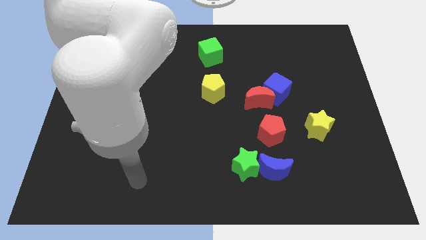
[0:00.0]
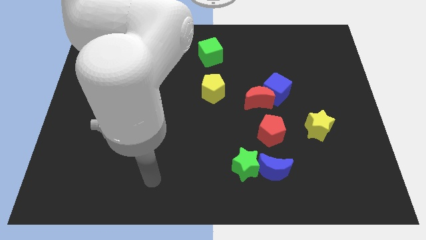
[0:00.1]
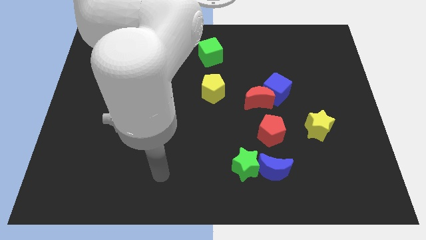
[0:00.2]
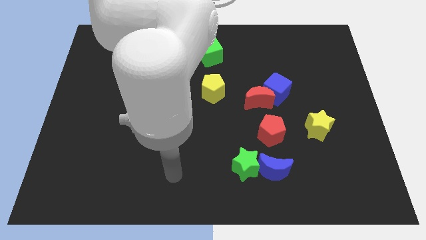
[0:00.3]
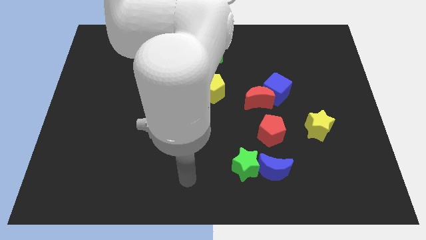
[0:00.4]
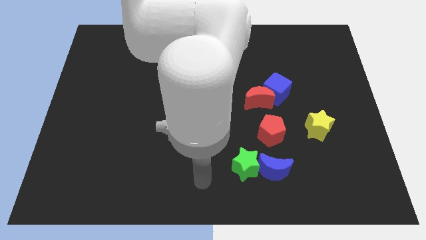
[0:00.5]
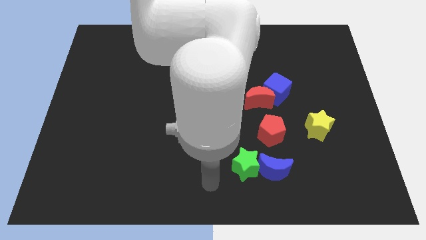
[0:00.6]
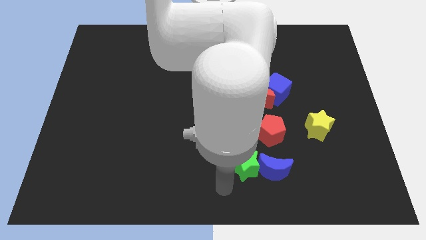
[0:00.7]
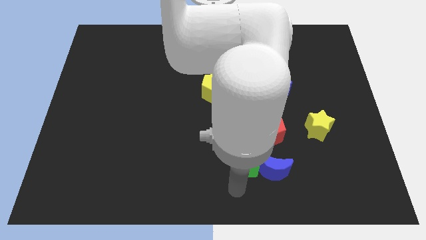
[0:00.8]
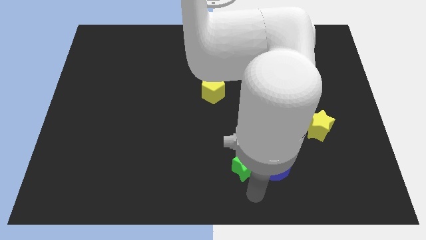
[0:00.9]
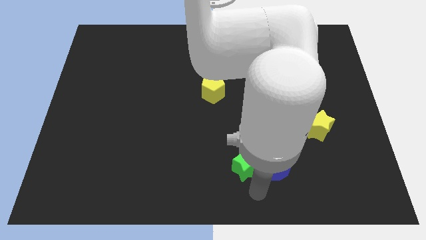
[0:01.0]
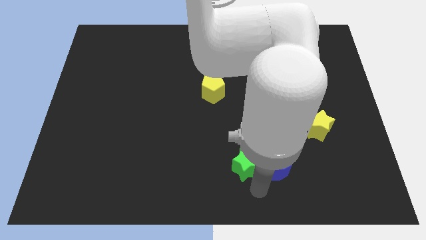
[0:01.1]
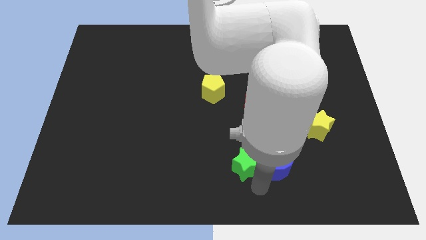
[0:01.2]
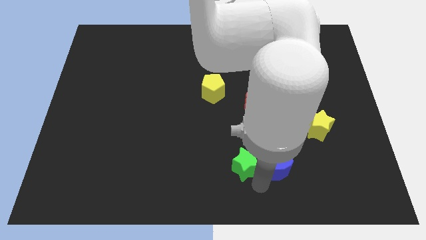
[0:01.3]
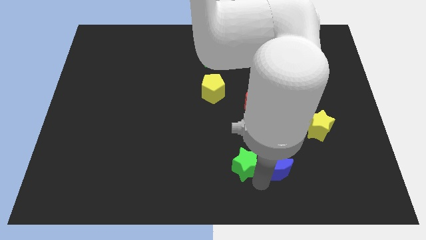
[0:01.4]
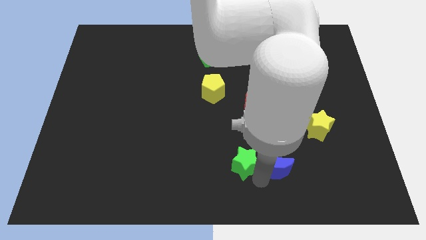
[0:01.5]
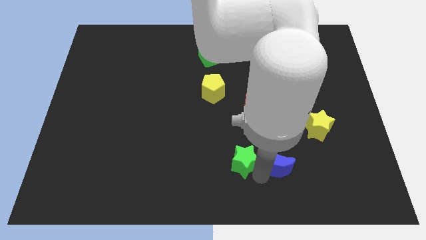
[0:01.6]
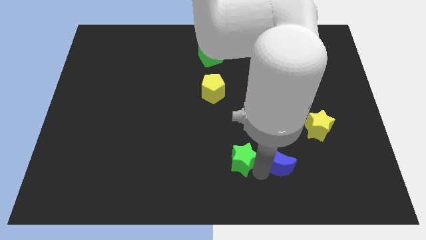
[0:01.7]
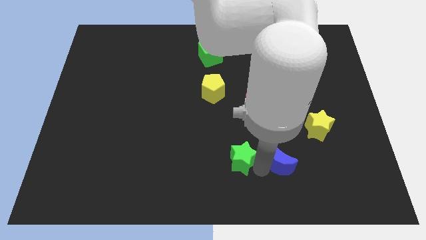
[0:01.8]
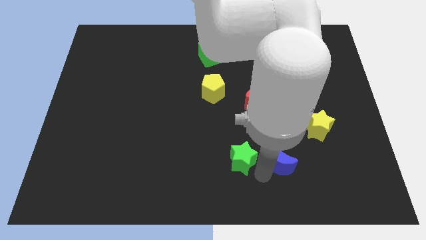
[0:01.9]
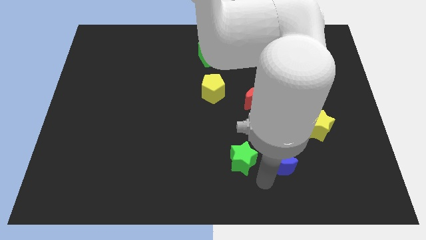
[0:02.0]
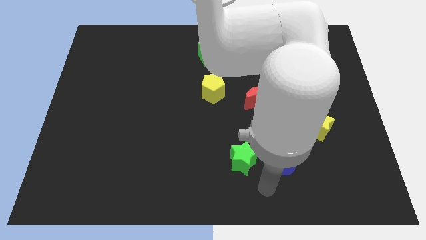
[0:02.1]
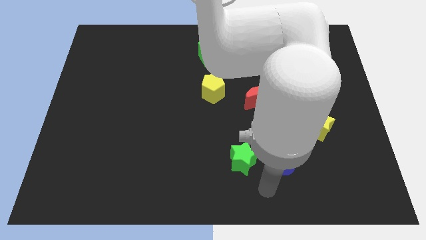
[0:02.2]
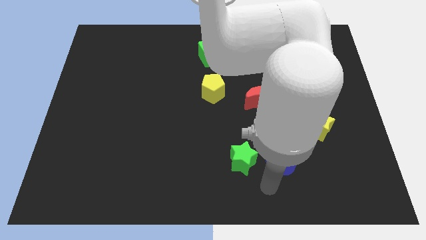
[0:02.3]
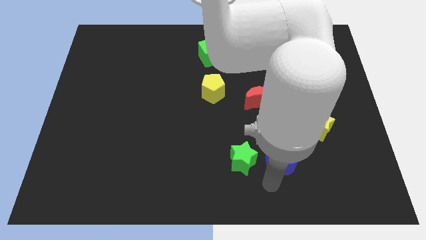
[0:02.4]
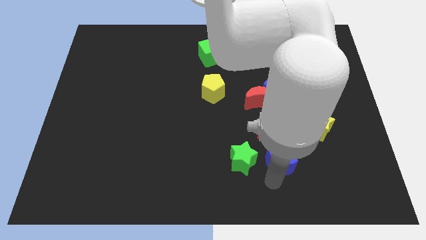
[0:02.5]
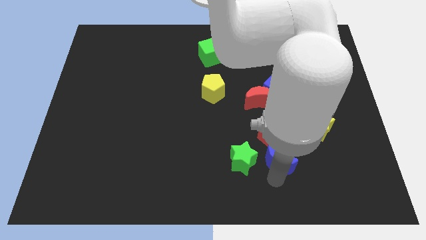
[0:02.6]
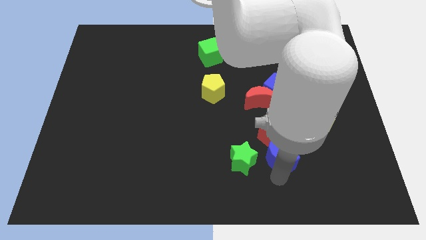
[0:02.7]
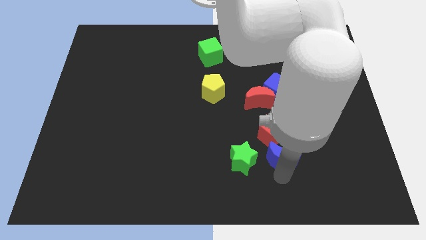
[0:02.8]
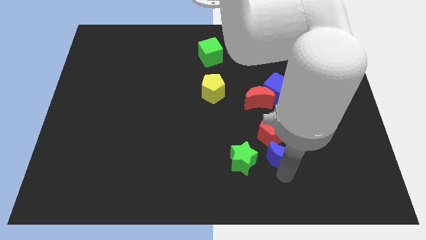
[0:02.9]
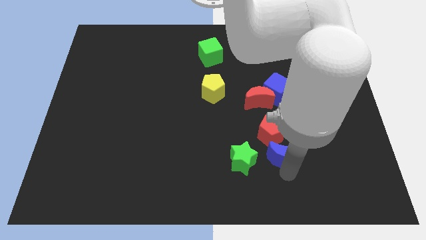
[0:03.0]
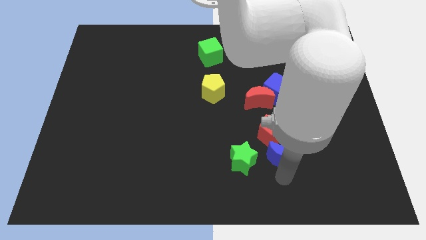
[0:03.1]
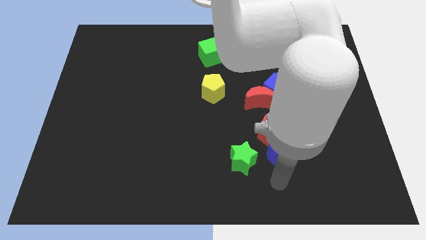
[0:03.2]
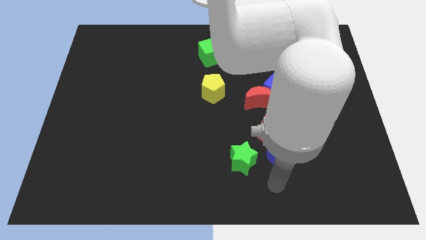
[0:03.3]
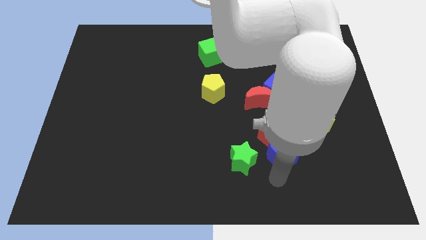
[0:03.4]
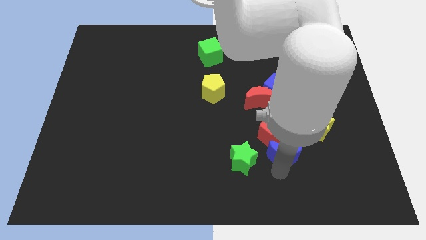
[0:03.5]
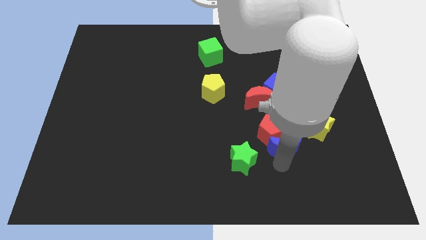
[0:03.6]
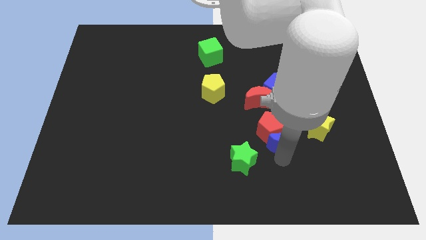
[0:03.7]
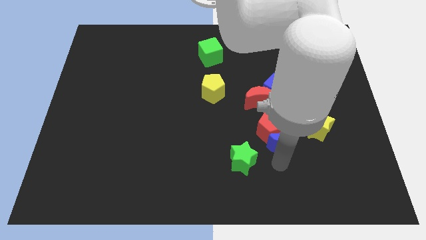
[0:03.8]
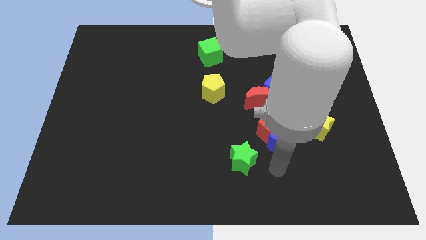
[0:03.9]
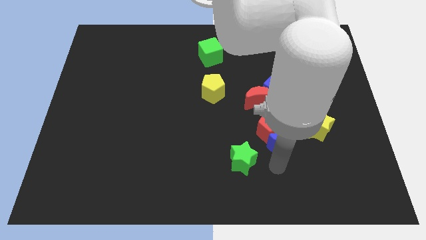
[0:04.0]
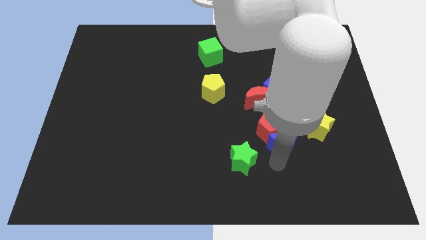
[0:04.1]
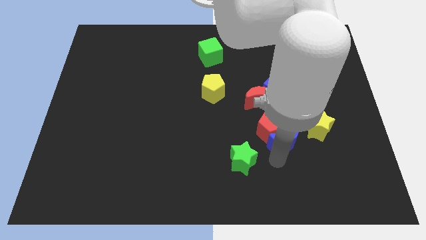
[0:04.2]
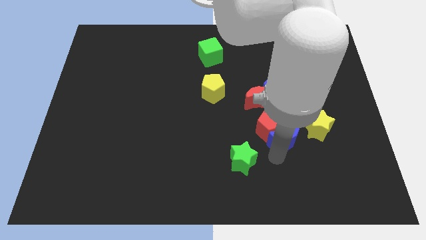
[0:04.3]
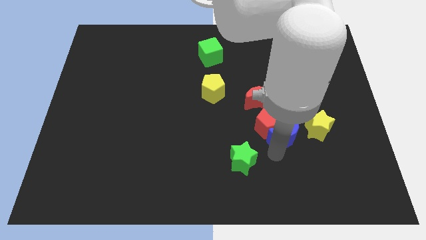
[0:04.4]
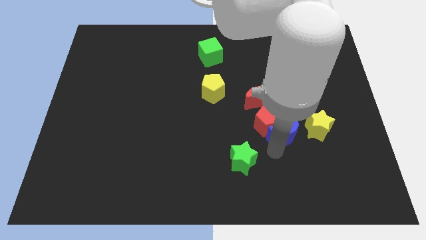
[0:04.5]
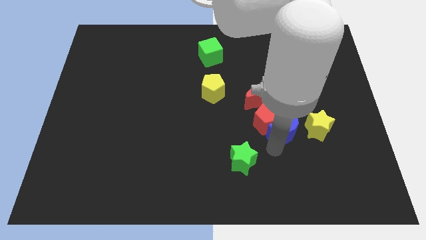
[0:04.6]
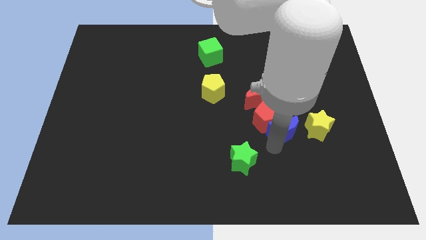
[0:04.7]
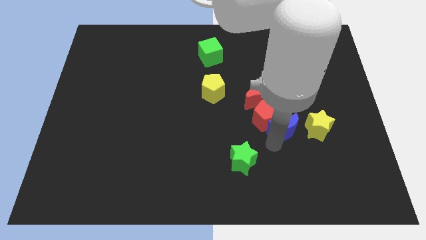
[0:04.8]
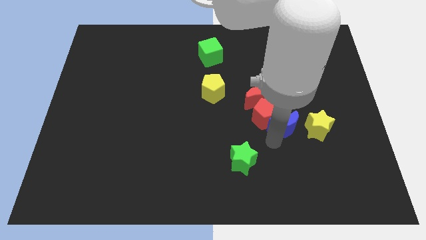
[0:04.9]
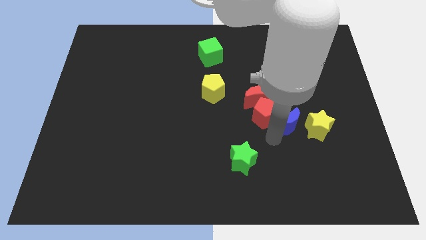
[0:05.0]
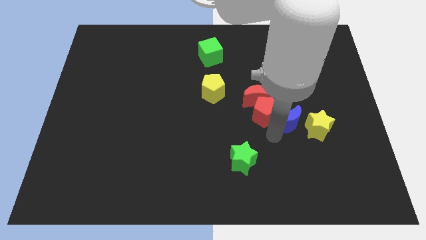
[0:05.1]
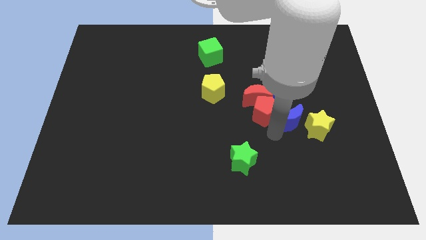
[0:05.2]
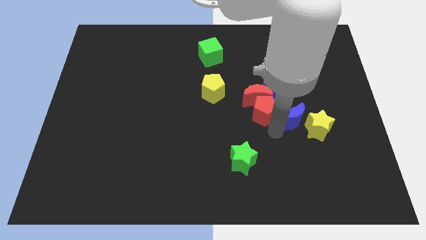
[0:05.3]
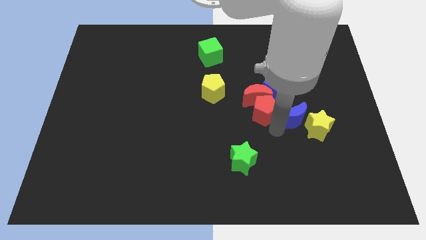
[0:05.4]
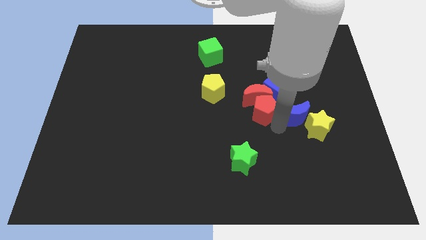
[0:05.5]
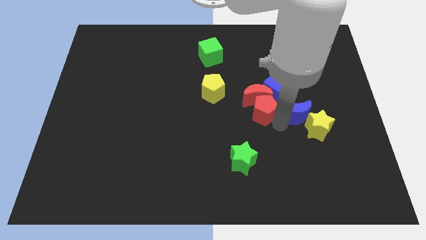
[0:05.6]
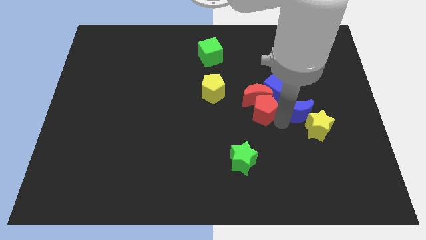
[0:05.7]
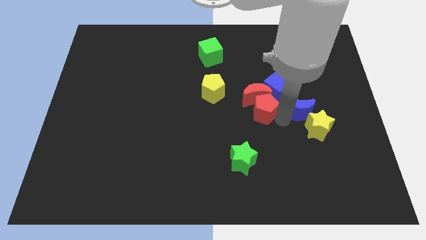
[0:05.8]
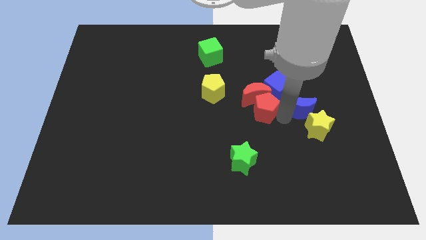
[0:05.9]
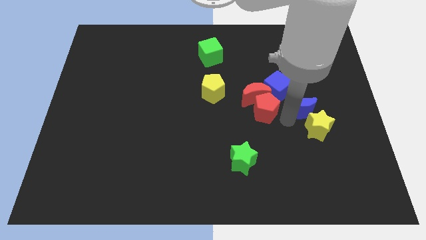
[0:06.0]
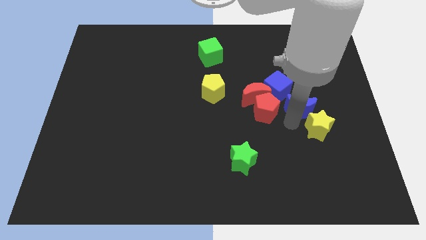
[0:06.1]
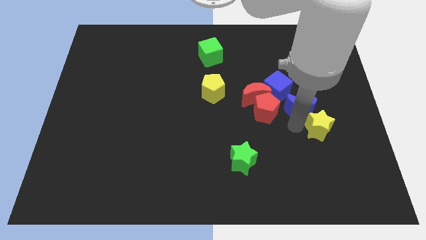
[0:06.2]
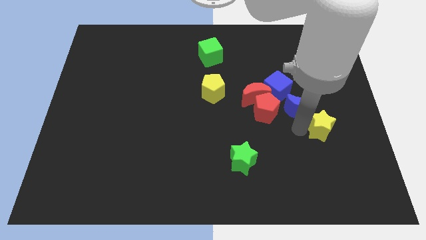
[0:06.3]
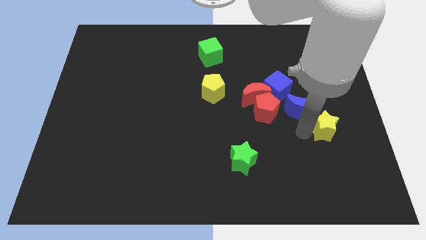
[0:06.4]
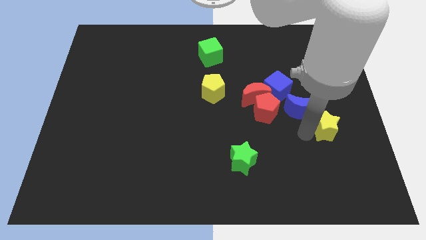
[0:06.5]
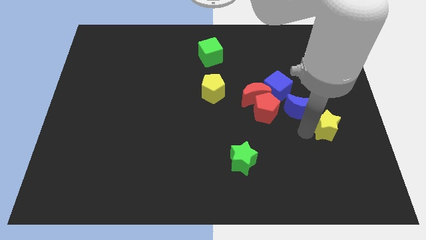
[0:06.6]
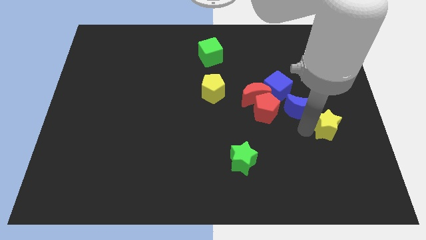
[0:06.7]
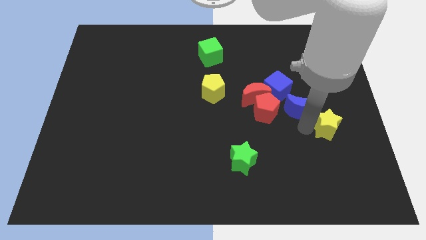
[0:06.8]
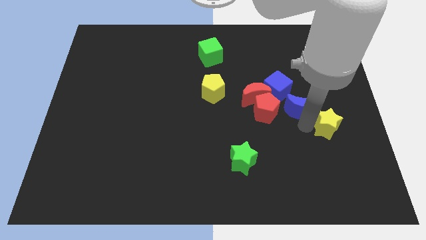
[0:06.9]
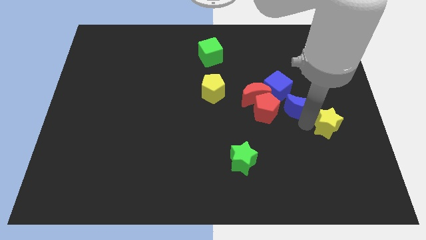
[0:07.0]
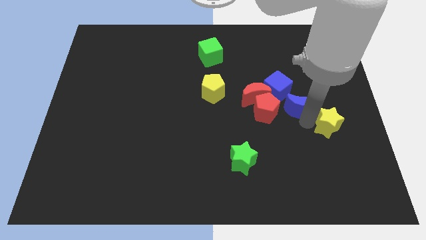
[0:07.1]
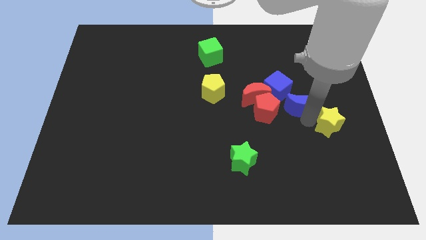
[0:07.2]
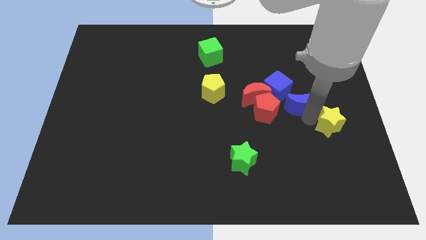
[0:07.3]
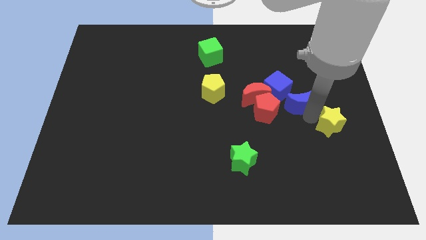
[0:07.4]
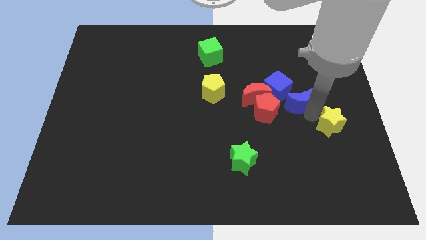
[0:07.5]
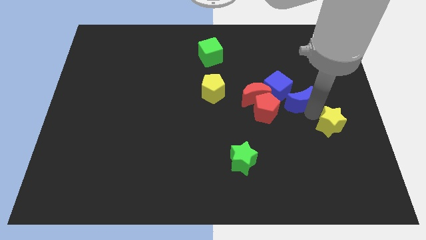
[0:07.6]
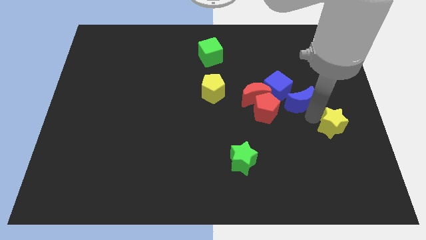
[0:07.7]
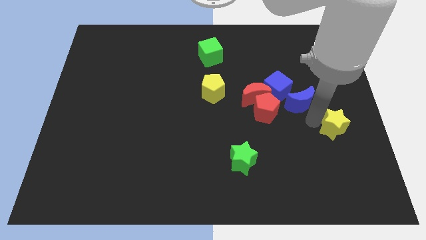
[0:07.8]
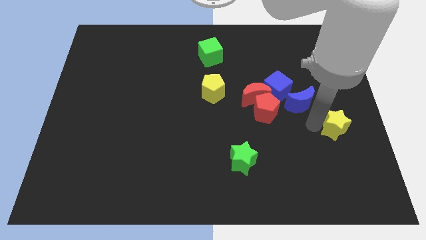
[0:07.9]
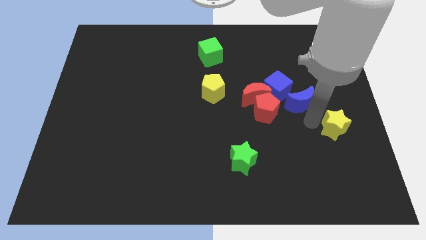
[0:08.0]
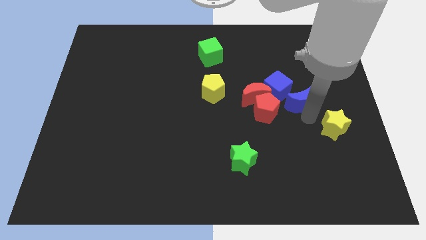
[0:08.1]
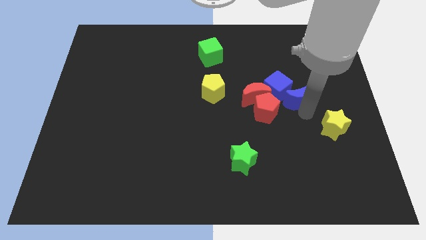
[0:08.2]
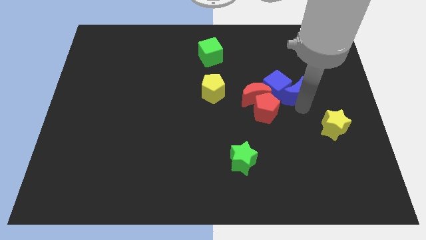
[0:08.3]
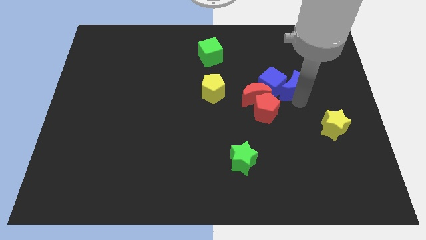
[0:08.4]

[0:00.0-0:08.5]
slide the blue moon up
